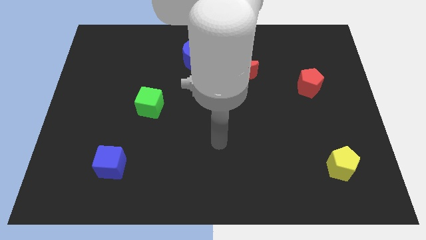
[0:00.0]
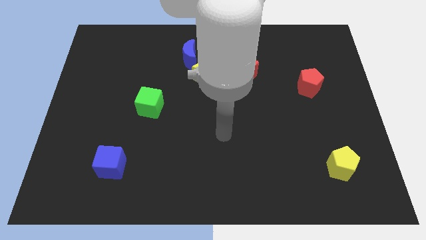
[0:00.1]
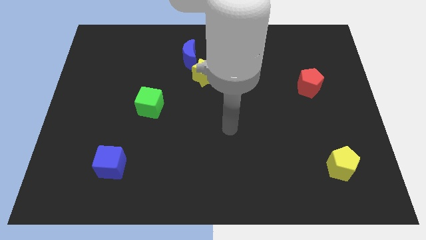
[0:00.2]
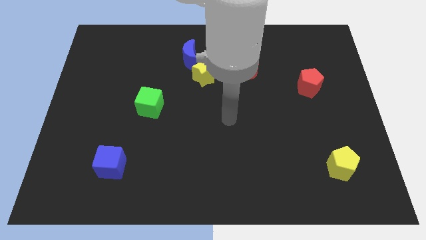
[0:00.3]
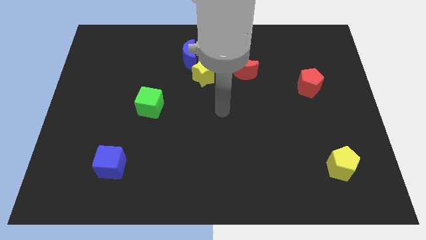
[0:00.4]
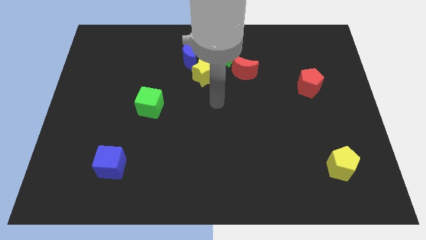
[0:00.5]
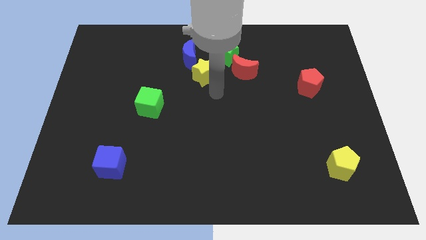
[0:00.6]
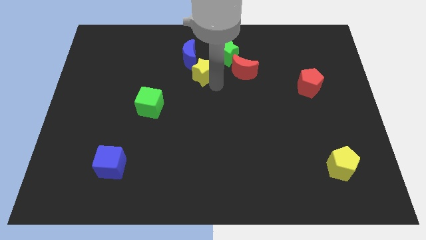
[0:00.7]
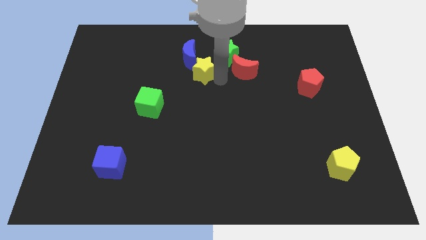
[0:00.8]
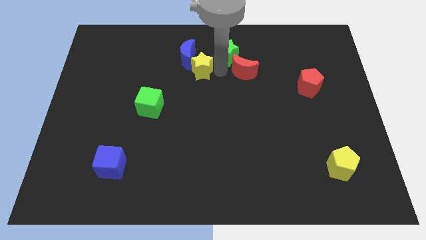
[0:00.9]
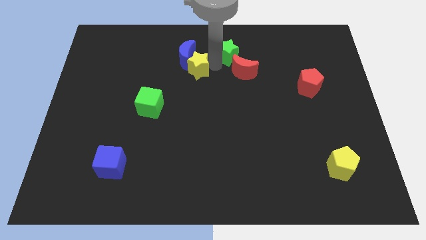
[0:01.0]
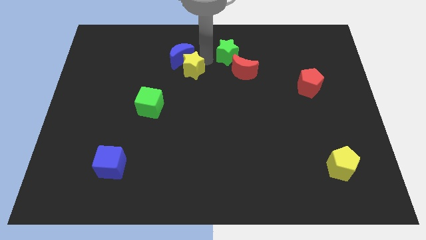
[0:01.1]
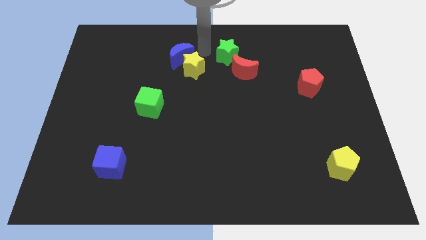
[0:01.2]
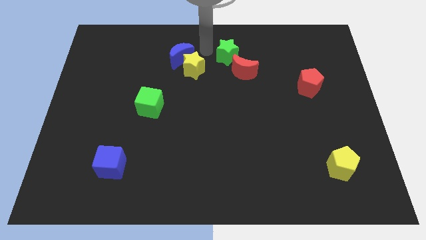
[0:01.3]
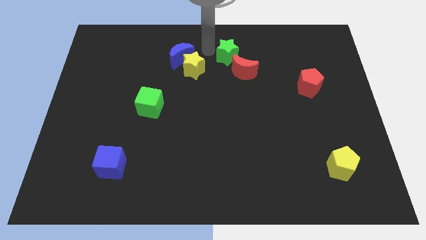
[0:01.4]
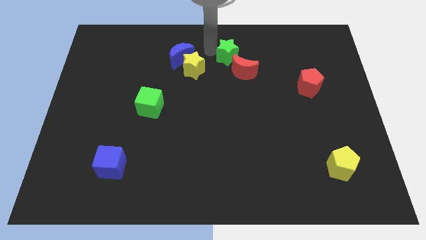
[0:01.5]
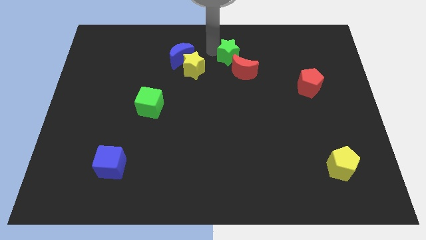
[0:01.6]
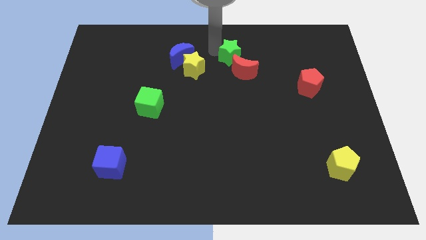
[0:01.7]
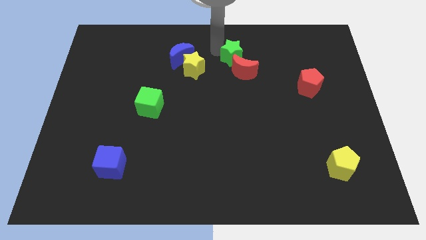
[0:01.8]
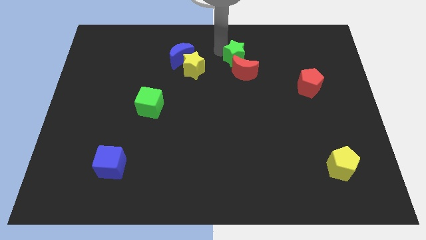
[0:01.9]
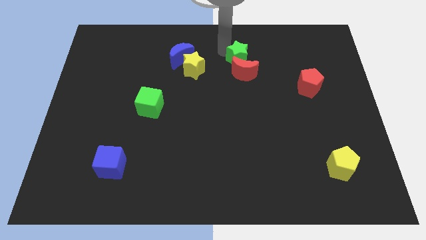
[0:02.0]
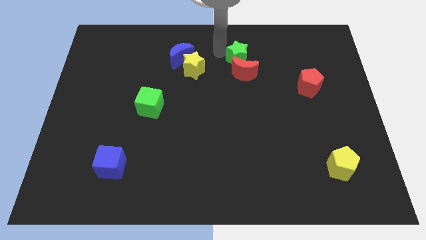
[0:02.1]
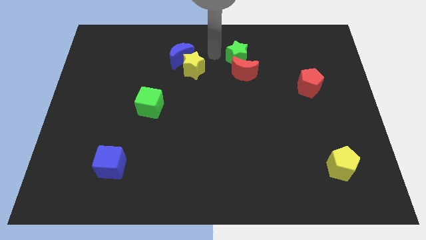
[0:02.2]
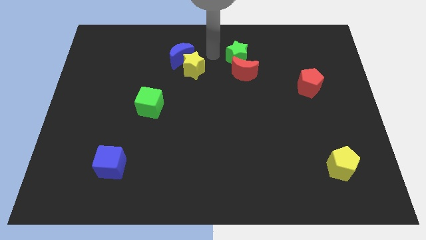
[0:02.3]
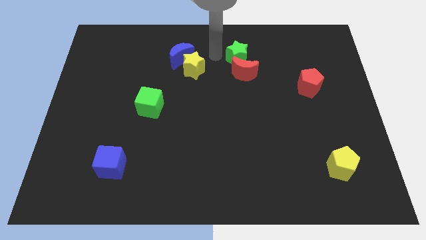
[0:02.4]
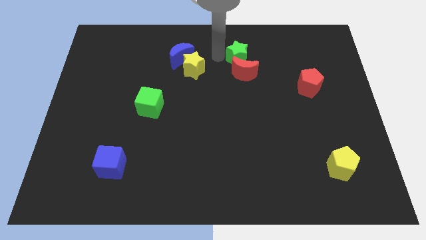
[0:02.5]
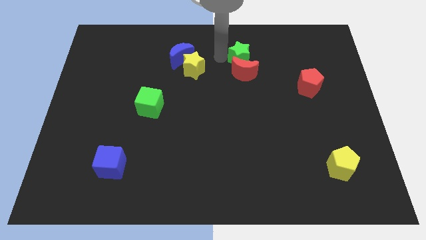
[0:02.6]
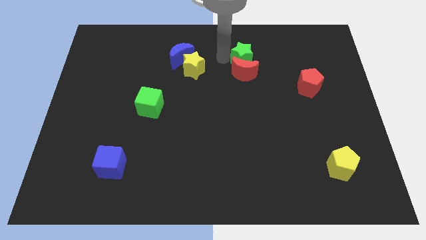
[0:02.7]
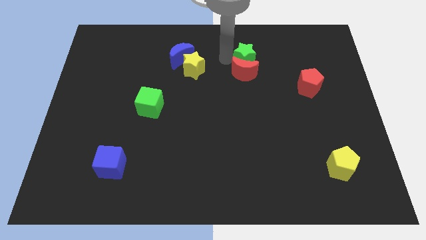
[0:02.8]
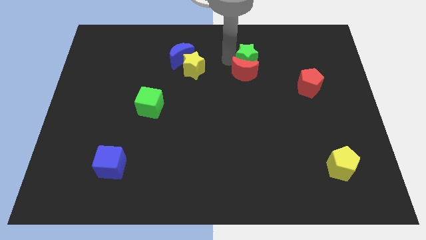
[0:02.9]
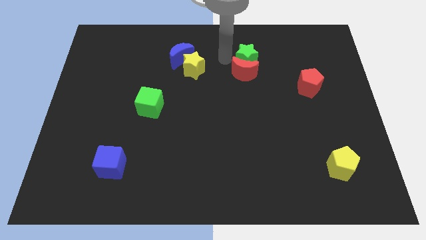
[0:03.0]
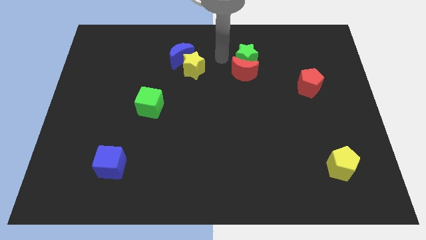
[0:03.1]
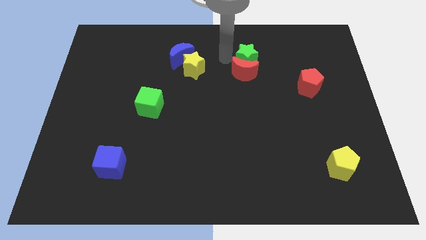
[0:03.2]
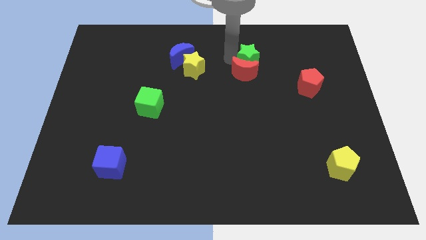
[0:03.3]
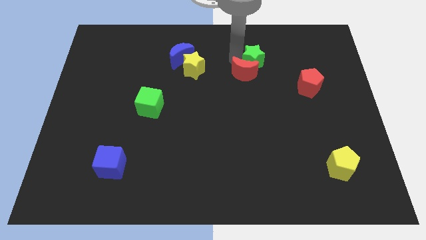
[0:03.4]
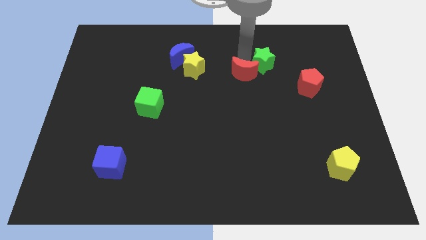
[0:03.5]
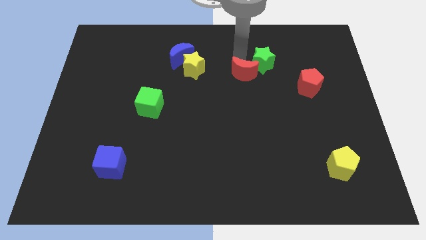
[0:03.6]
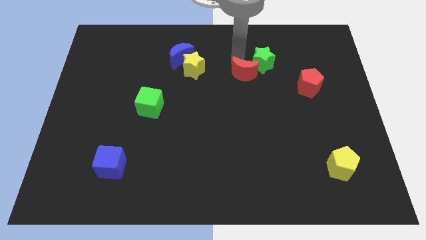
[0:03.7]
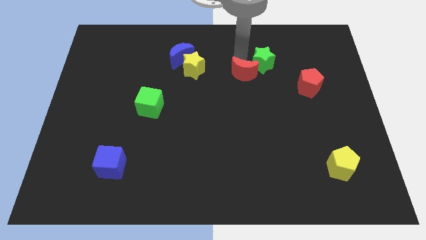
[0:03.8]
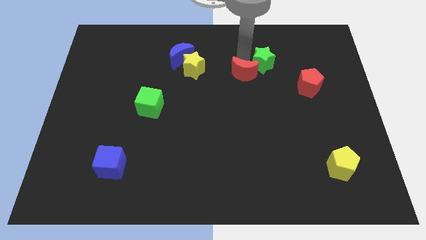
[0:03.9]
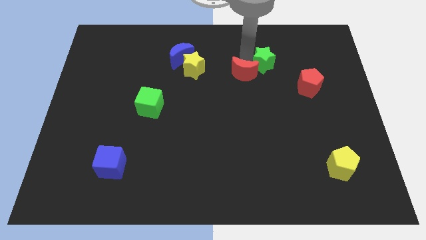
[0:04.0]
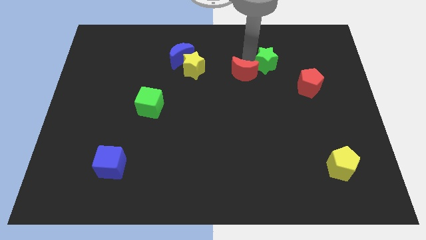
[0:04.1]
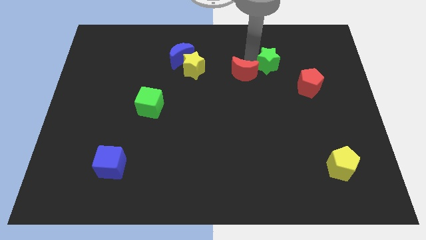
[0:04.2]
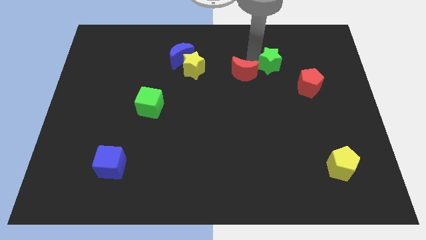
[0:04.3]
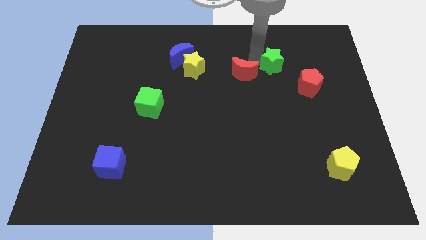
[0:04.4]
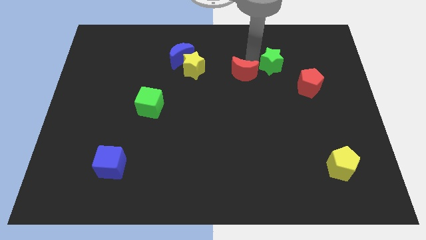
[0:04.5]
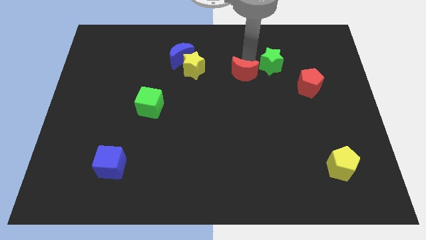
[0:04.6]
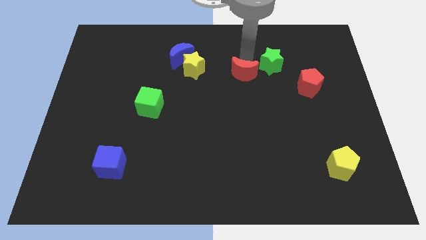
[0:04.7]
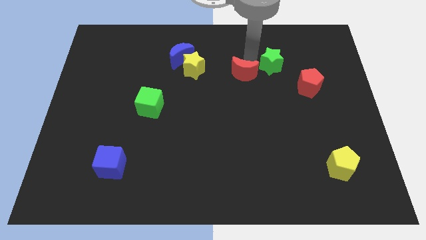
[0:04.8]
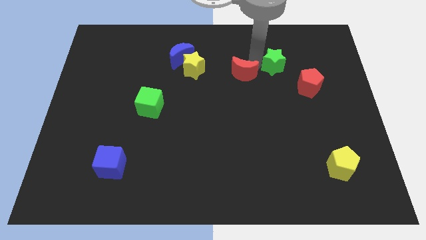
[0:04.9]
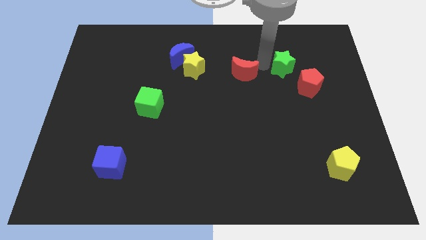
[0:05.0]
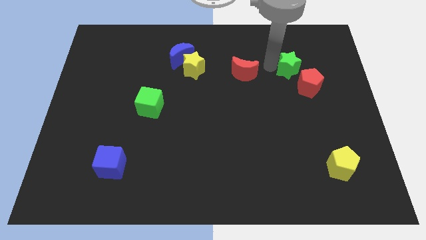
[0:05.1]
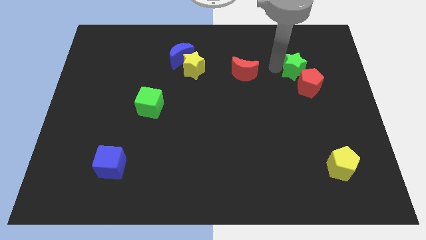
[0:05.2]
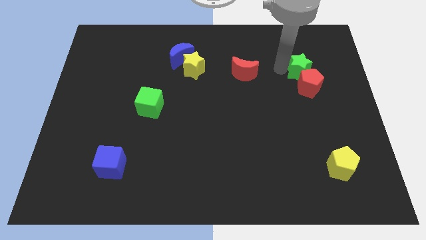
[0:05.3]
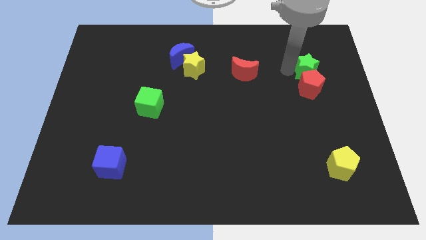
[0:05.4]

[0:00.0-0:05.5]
push the green star to the top right of the red pentagon

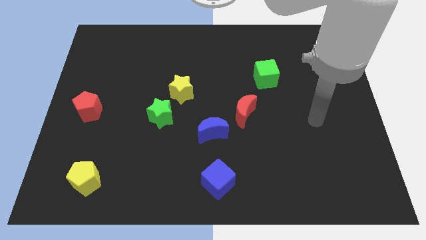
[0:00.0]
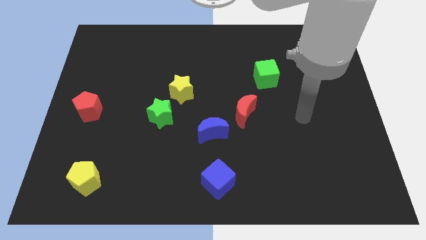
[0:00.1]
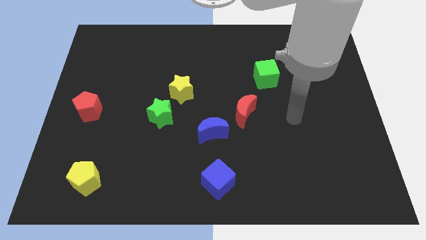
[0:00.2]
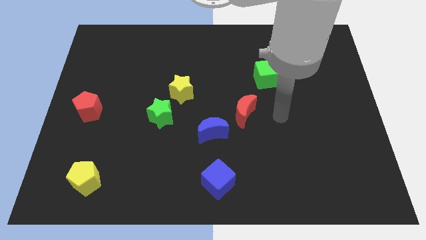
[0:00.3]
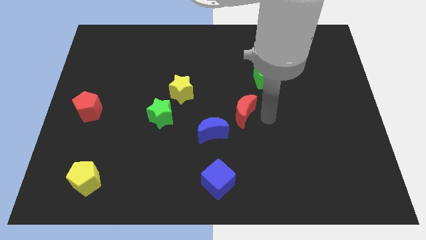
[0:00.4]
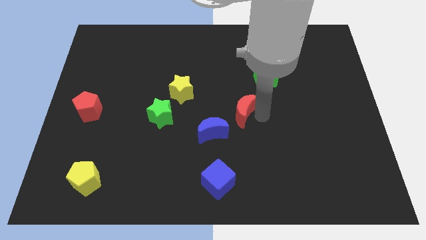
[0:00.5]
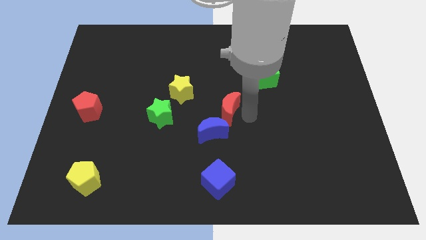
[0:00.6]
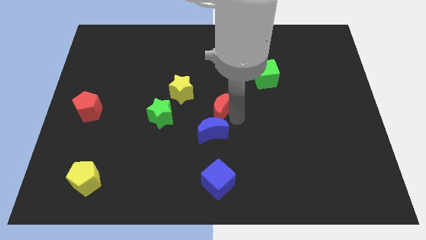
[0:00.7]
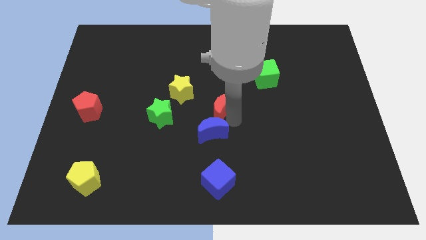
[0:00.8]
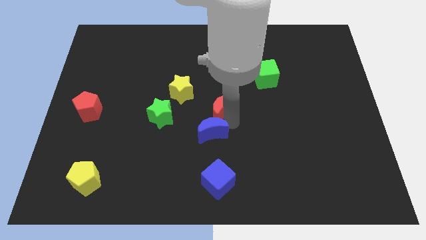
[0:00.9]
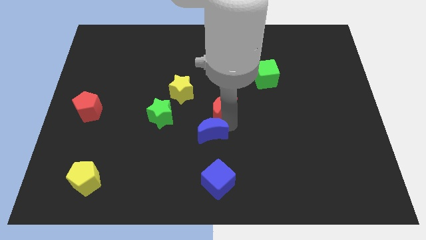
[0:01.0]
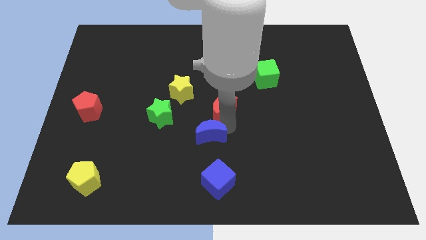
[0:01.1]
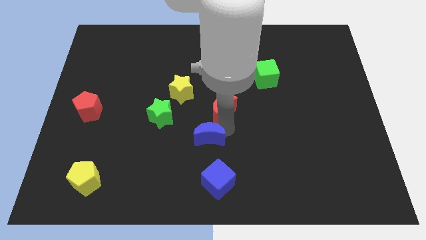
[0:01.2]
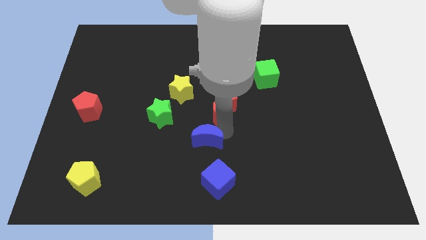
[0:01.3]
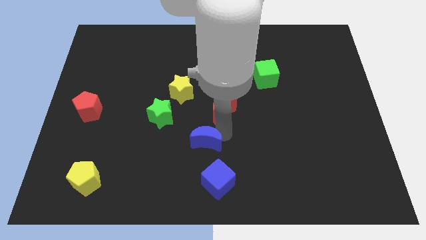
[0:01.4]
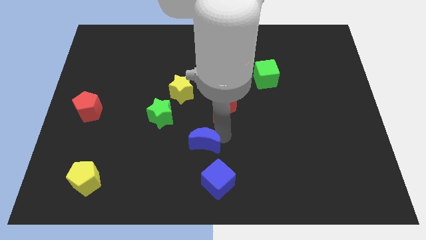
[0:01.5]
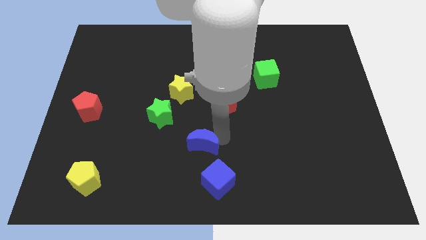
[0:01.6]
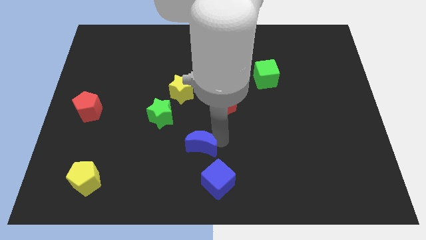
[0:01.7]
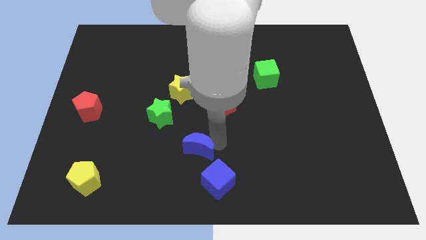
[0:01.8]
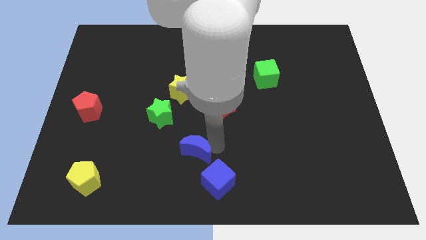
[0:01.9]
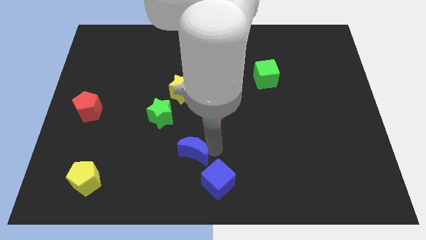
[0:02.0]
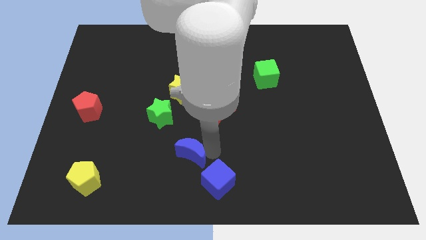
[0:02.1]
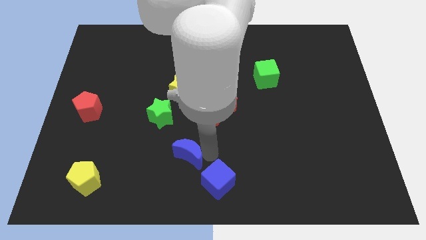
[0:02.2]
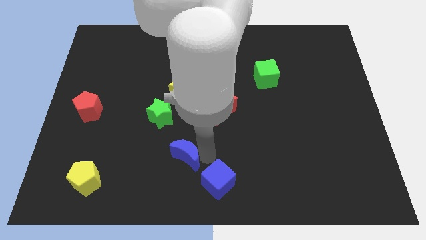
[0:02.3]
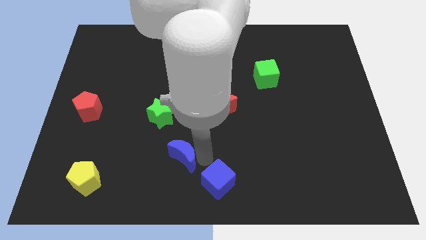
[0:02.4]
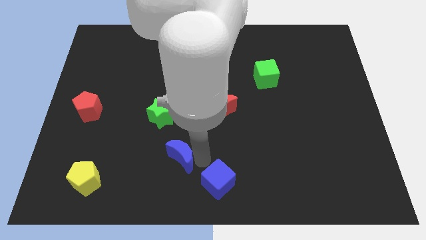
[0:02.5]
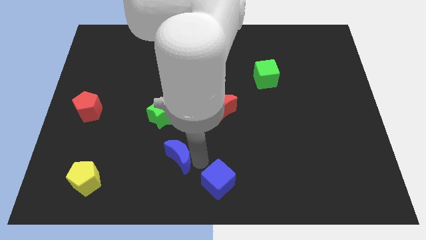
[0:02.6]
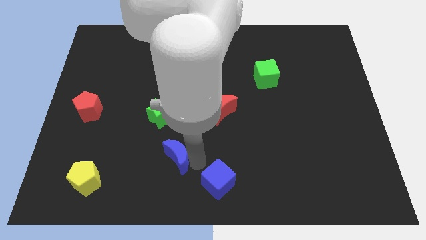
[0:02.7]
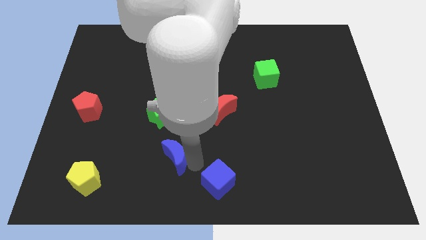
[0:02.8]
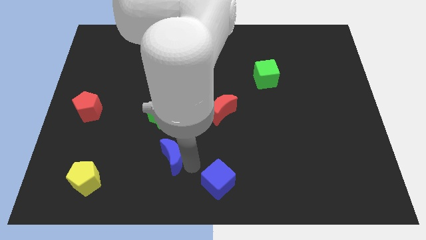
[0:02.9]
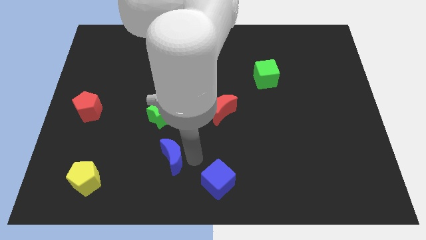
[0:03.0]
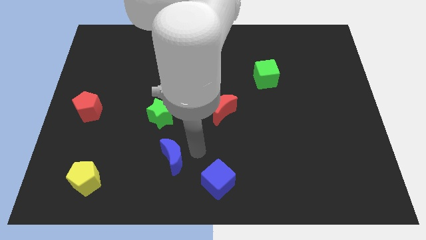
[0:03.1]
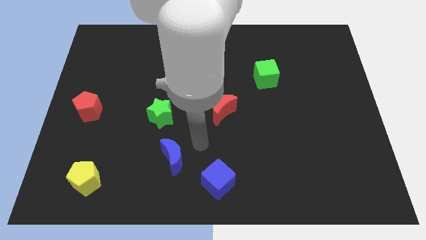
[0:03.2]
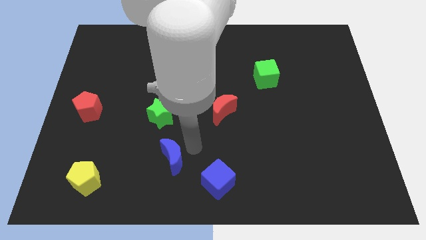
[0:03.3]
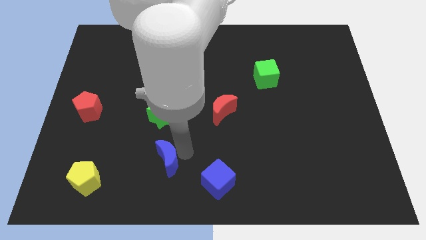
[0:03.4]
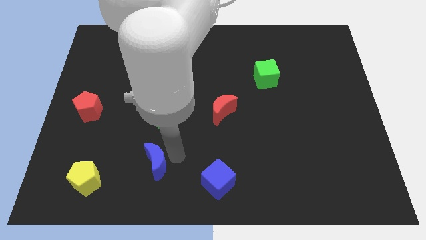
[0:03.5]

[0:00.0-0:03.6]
slide the blue moon to the right side of the yellow pentagon
